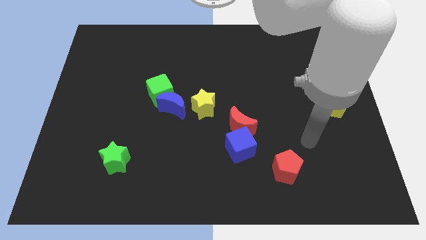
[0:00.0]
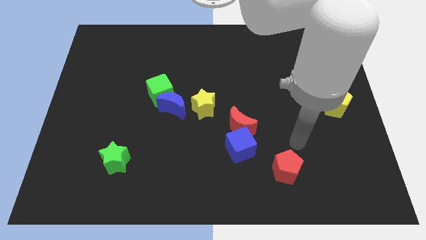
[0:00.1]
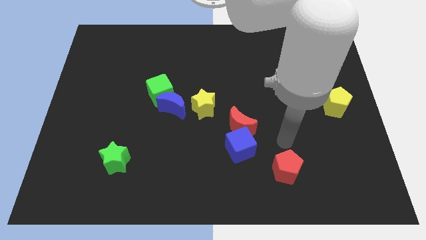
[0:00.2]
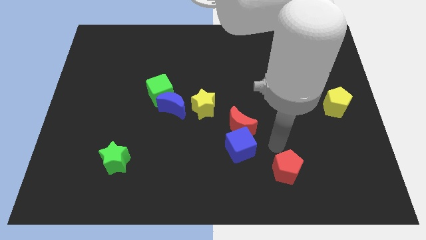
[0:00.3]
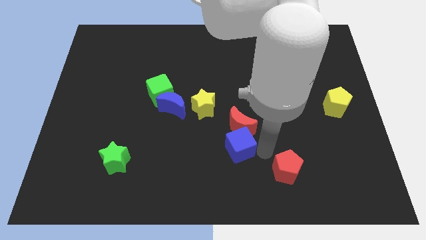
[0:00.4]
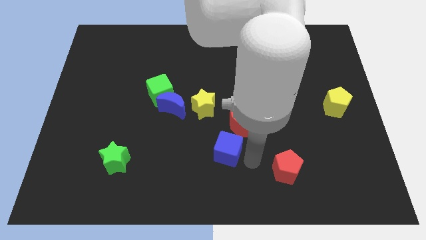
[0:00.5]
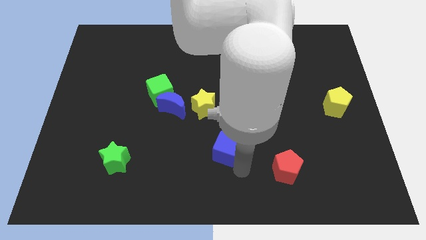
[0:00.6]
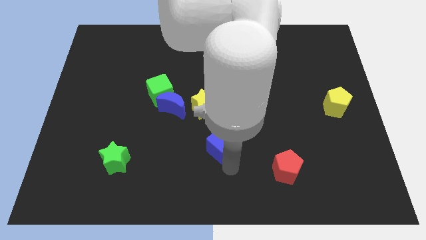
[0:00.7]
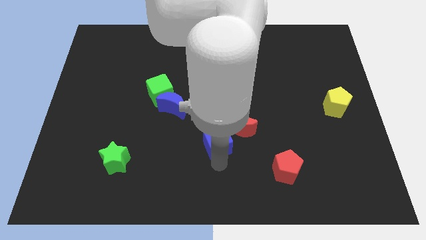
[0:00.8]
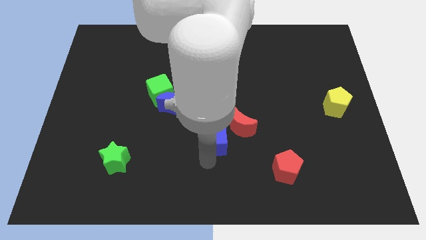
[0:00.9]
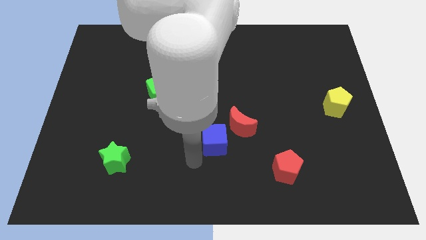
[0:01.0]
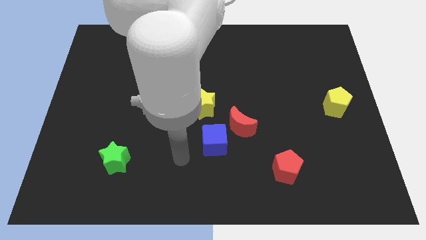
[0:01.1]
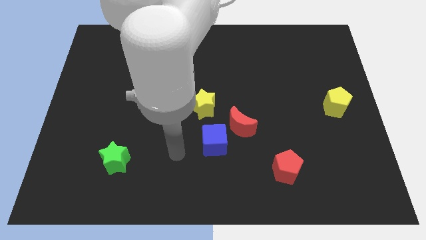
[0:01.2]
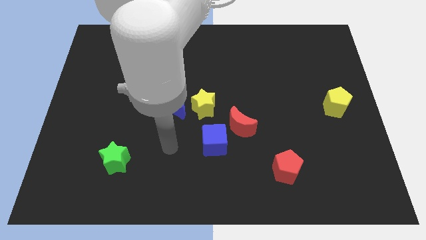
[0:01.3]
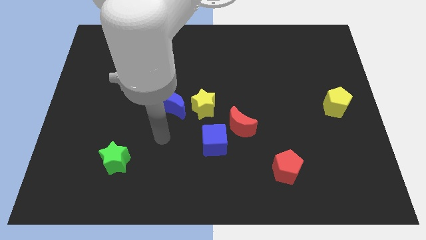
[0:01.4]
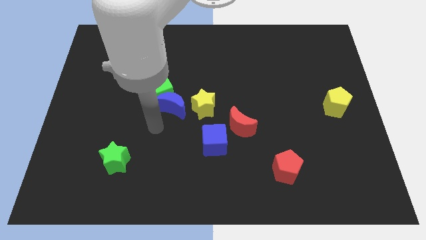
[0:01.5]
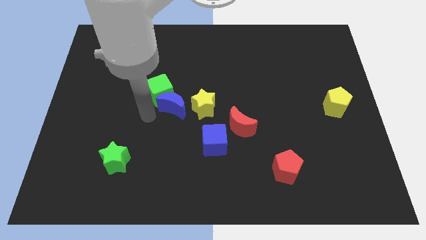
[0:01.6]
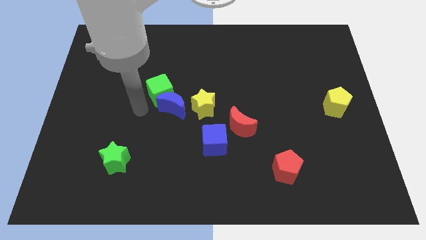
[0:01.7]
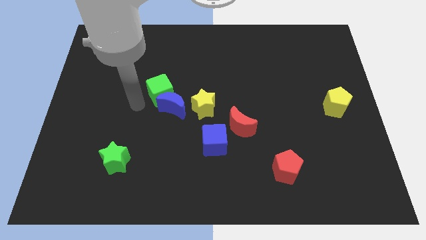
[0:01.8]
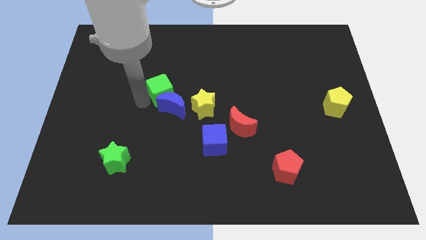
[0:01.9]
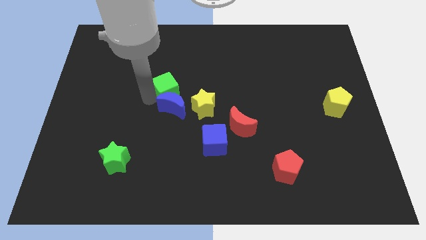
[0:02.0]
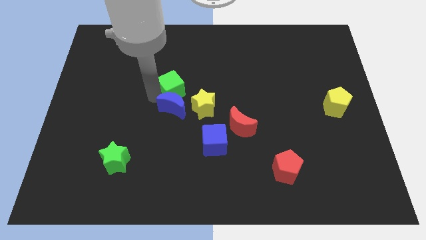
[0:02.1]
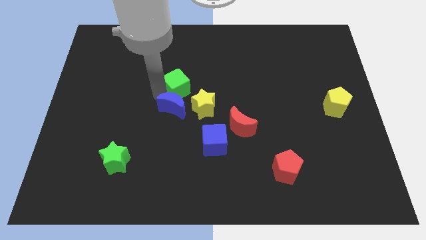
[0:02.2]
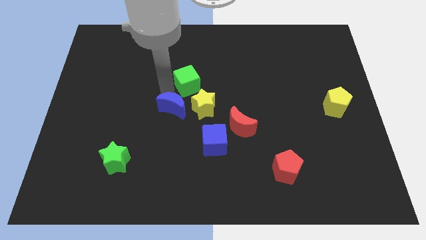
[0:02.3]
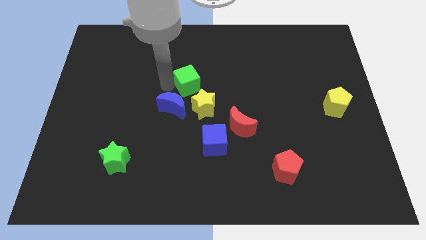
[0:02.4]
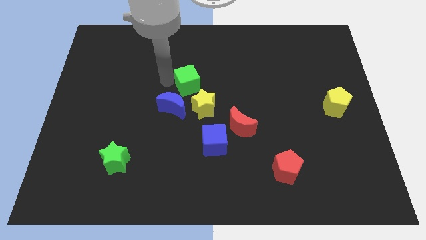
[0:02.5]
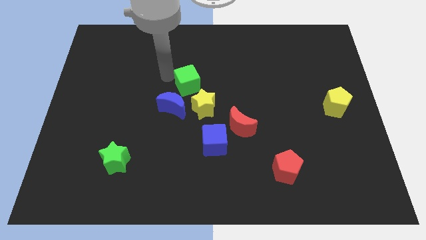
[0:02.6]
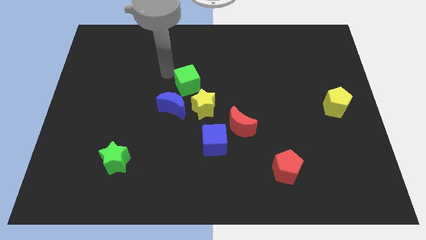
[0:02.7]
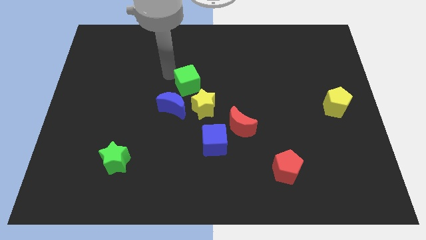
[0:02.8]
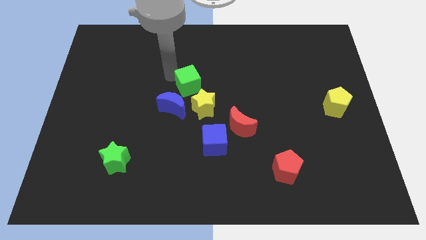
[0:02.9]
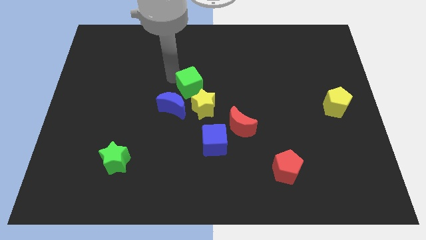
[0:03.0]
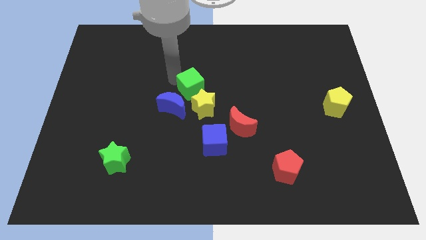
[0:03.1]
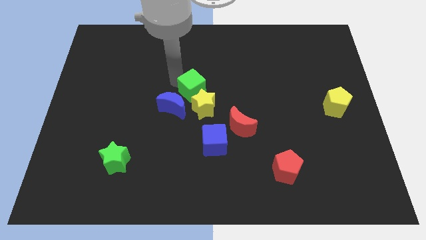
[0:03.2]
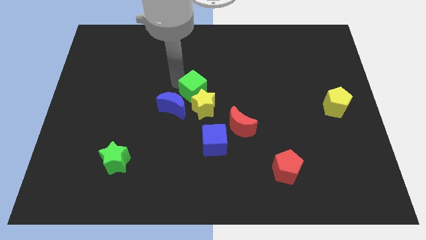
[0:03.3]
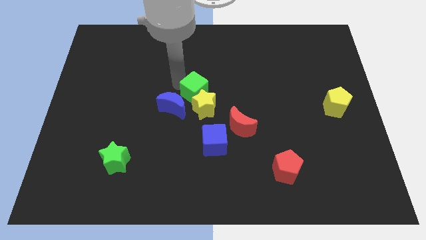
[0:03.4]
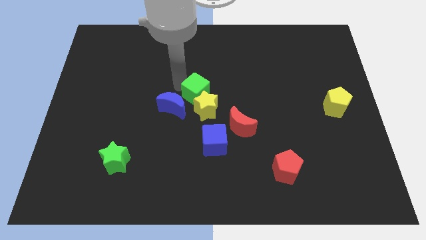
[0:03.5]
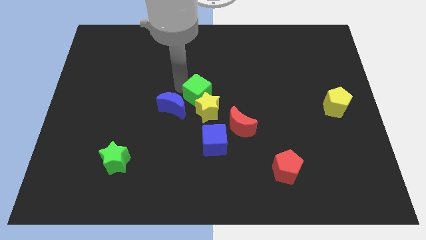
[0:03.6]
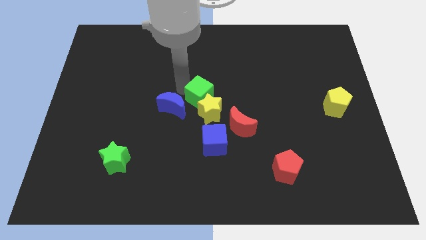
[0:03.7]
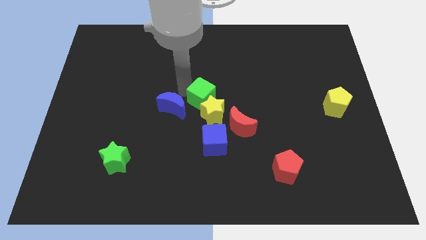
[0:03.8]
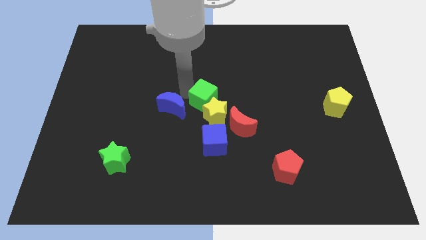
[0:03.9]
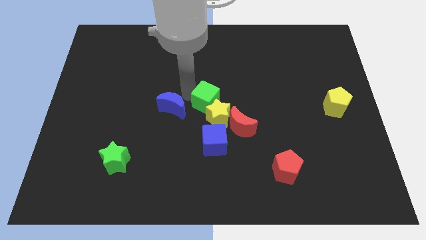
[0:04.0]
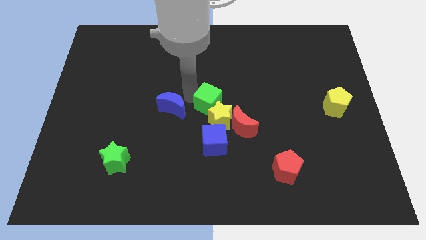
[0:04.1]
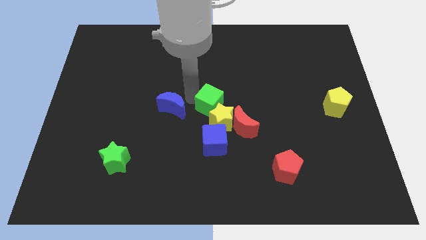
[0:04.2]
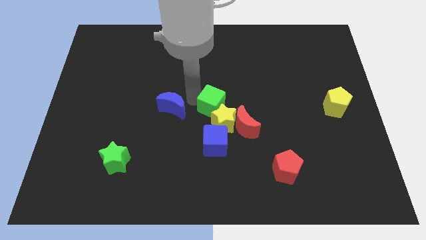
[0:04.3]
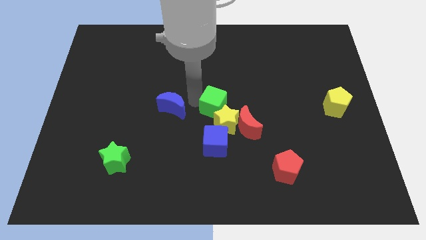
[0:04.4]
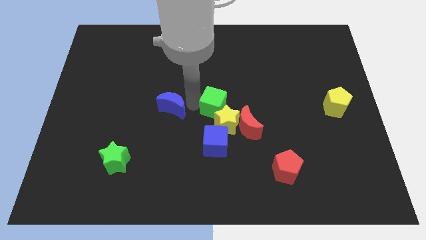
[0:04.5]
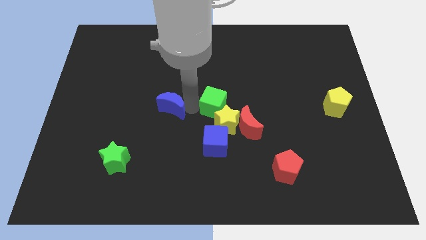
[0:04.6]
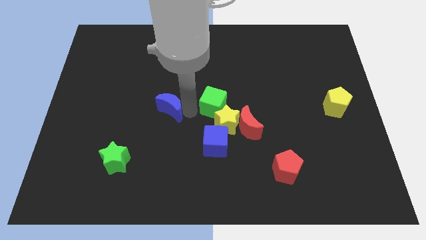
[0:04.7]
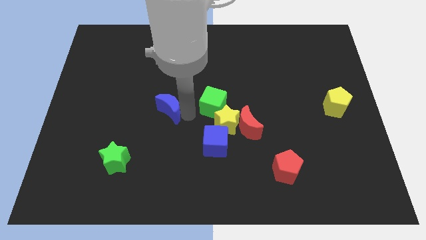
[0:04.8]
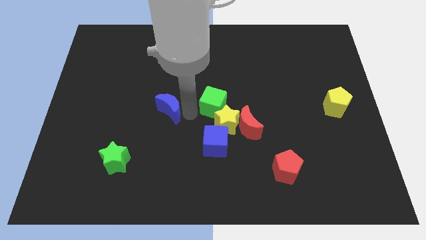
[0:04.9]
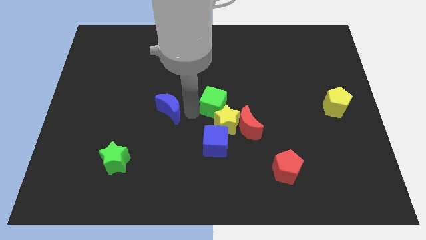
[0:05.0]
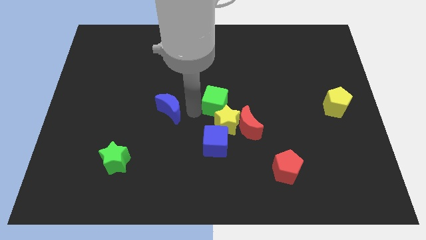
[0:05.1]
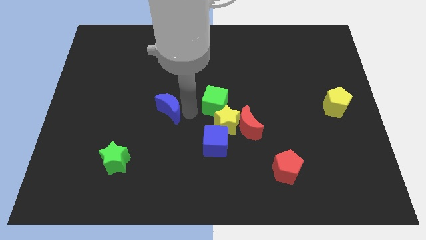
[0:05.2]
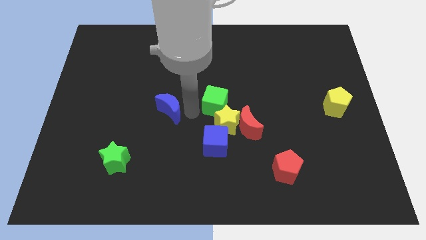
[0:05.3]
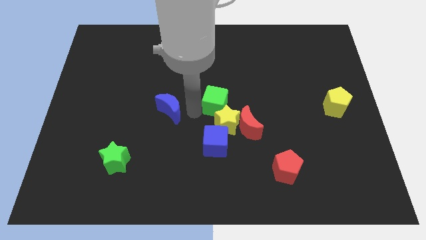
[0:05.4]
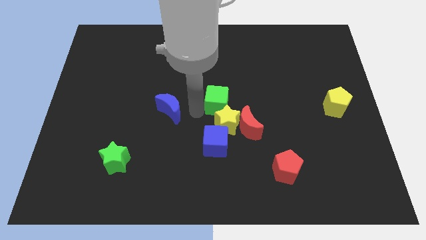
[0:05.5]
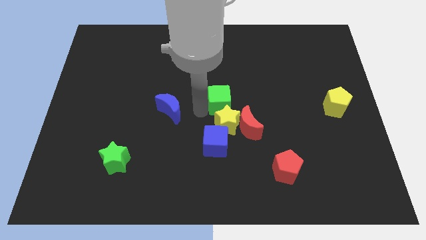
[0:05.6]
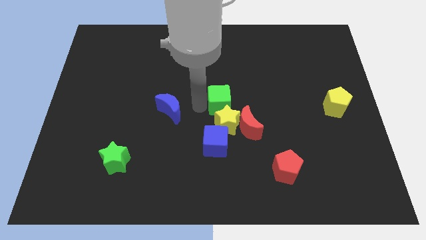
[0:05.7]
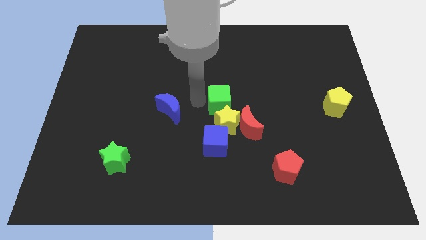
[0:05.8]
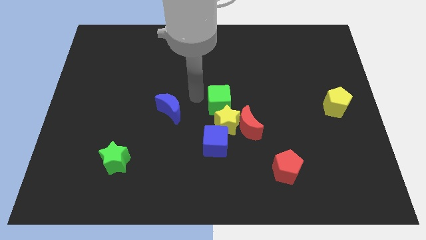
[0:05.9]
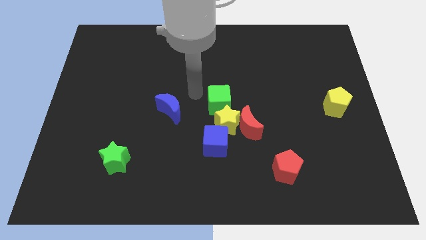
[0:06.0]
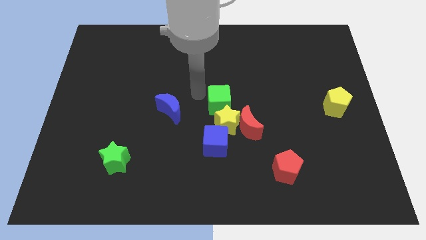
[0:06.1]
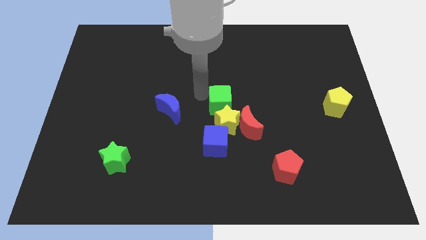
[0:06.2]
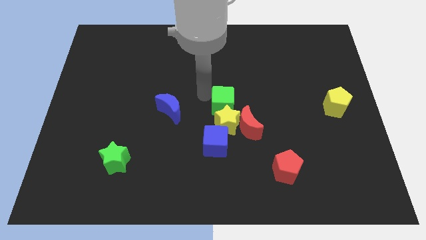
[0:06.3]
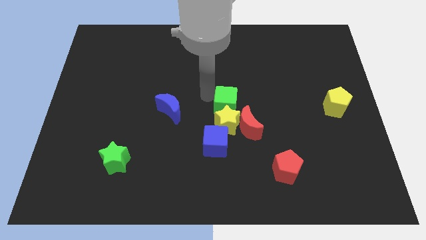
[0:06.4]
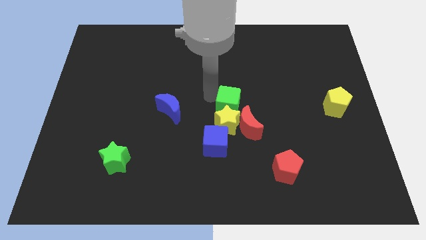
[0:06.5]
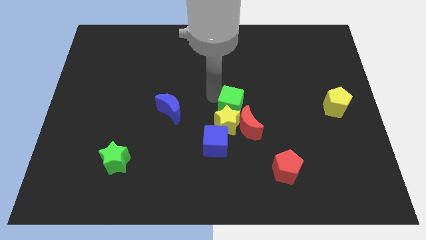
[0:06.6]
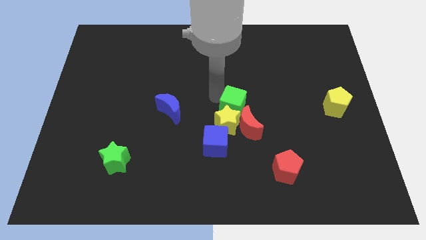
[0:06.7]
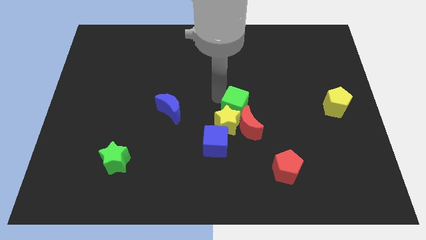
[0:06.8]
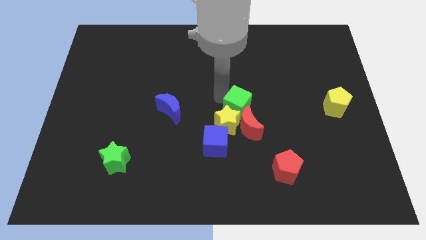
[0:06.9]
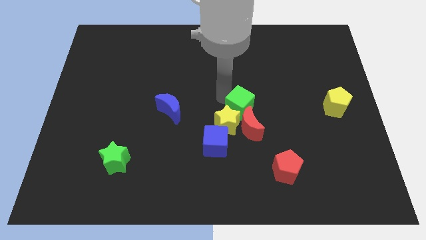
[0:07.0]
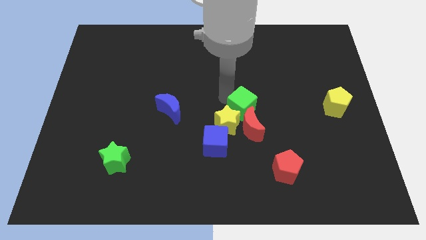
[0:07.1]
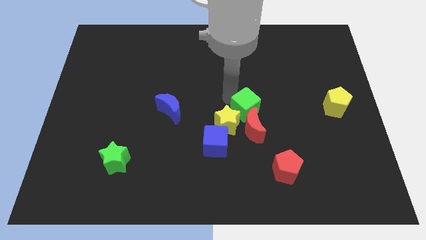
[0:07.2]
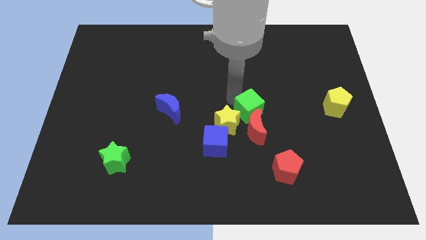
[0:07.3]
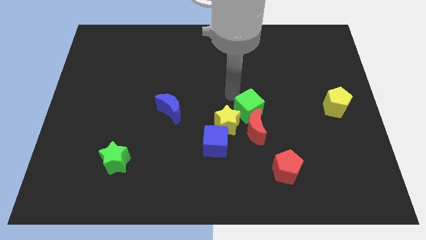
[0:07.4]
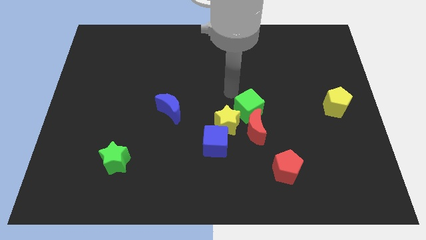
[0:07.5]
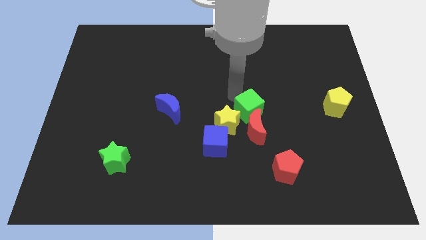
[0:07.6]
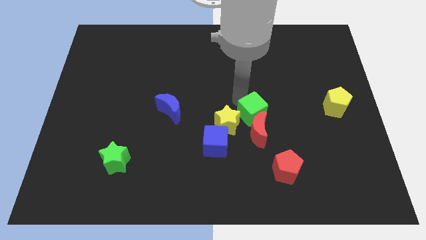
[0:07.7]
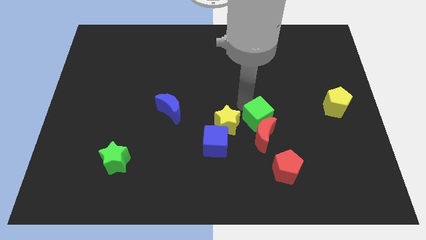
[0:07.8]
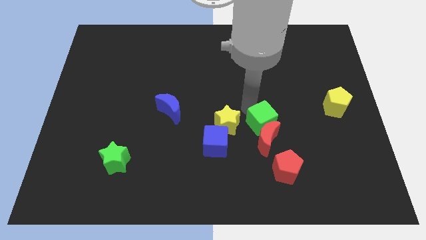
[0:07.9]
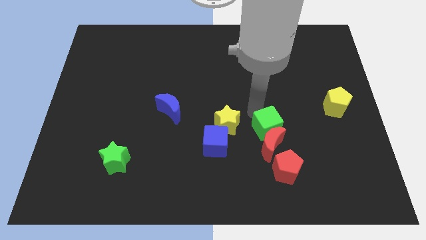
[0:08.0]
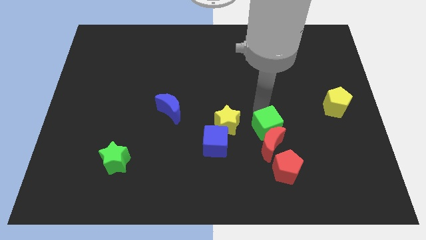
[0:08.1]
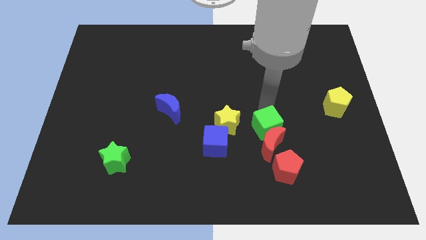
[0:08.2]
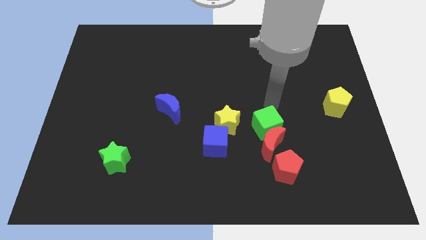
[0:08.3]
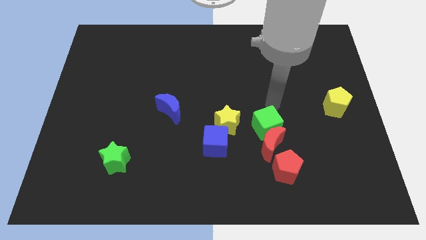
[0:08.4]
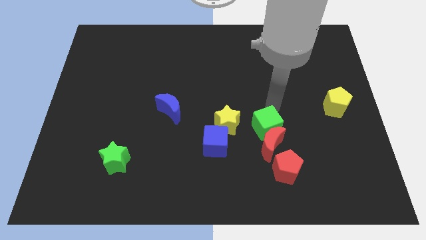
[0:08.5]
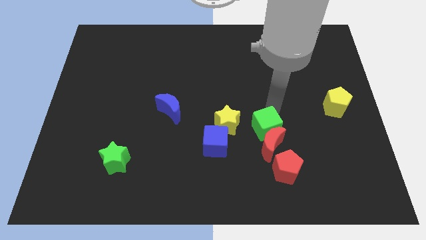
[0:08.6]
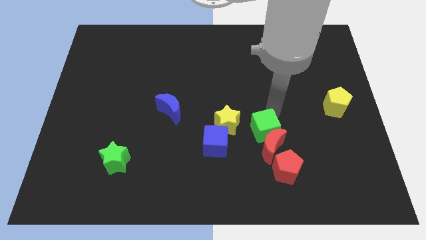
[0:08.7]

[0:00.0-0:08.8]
push the green cube diagonally up and to the left of the red pentagon
